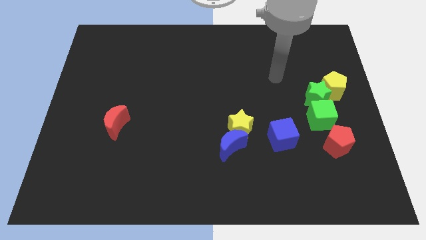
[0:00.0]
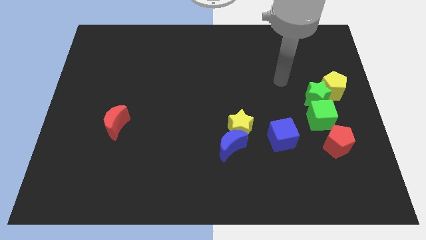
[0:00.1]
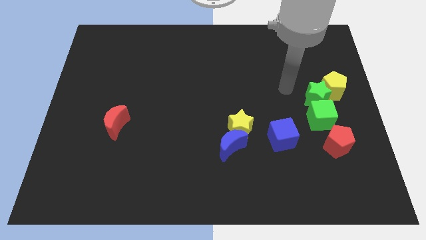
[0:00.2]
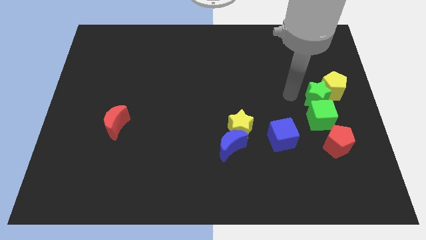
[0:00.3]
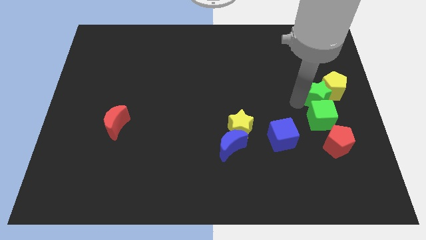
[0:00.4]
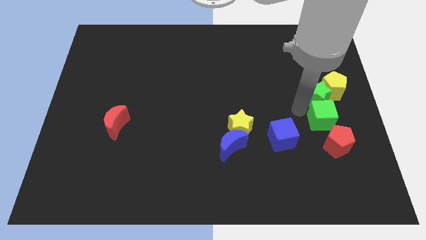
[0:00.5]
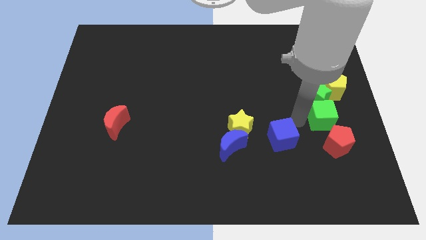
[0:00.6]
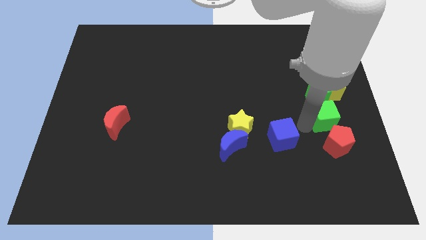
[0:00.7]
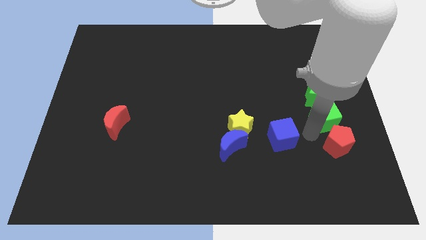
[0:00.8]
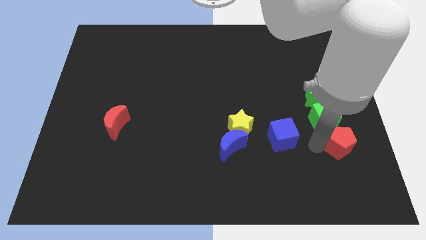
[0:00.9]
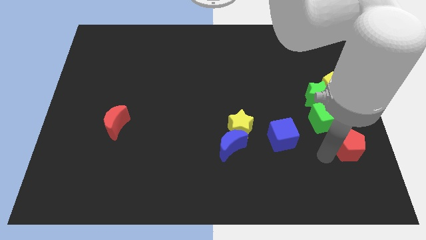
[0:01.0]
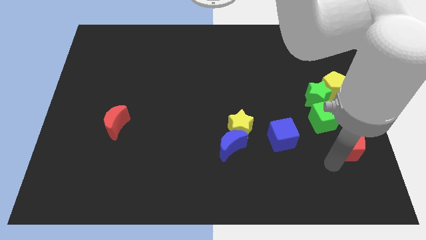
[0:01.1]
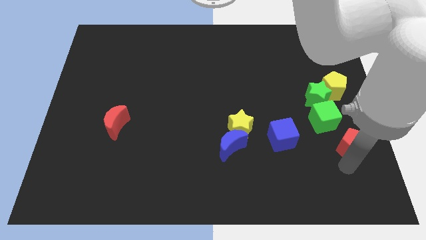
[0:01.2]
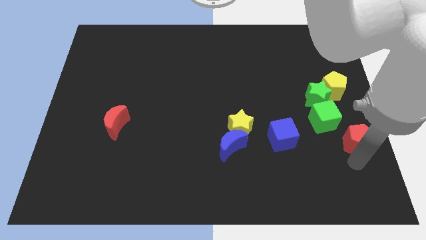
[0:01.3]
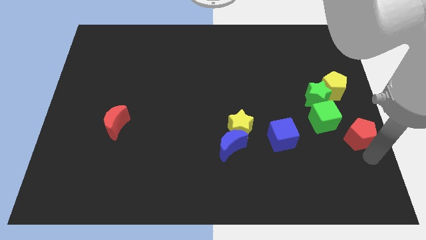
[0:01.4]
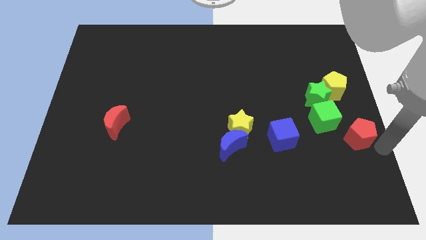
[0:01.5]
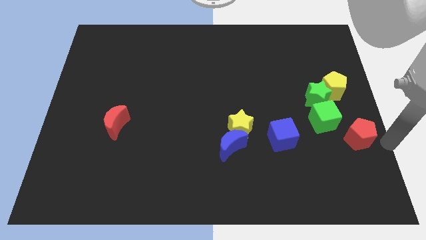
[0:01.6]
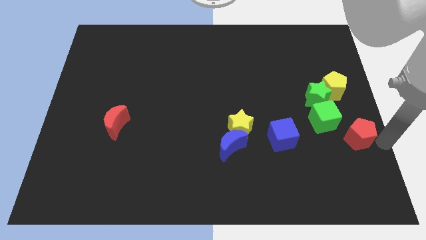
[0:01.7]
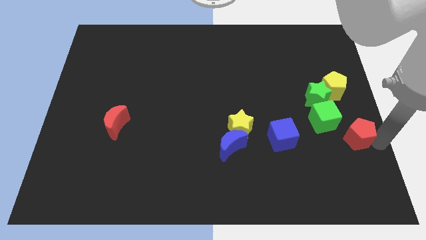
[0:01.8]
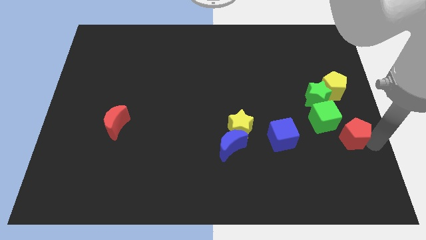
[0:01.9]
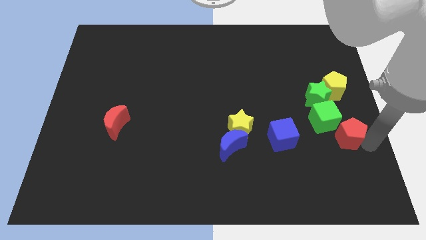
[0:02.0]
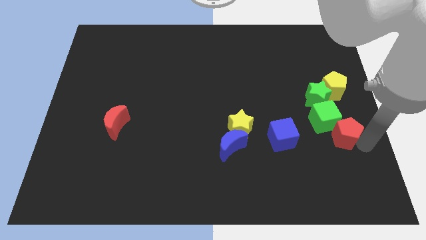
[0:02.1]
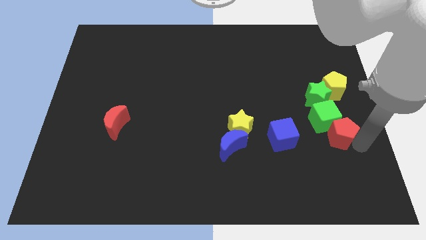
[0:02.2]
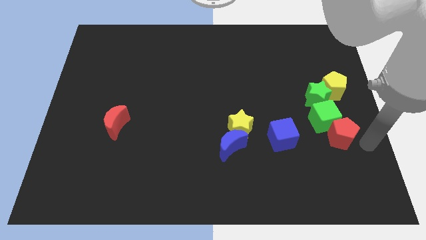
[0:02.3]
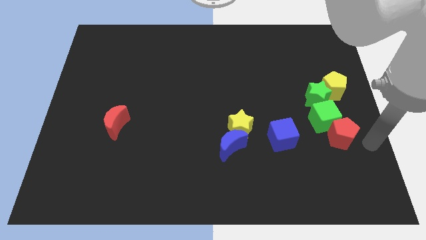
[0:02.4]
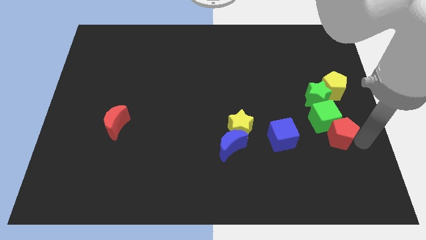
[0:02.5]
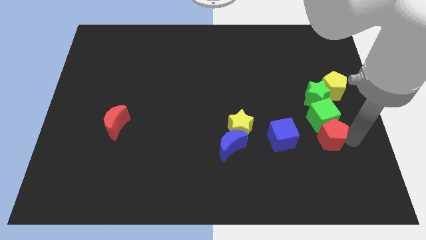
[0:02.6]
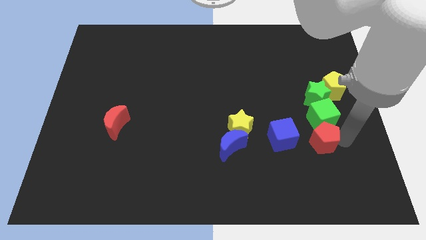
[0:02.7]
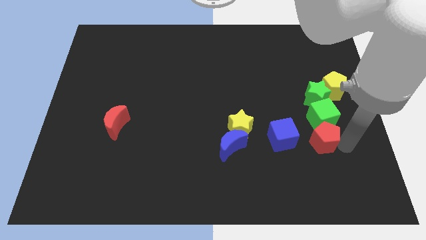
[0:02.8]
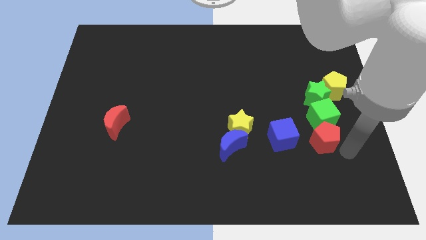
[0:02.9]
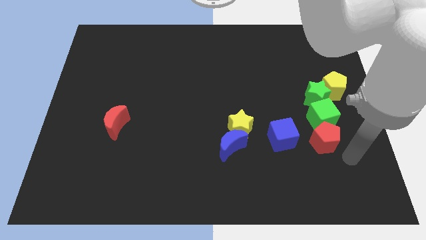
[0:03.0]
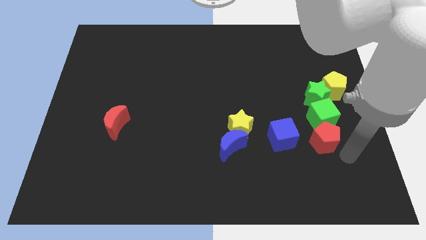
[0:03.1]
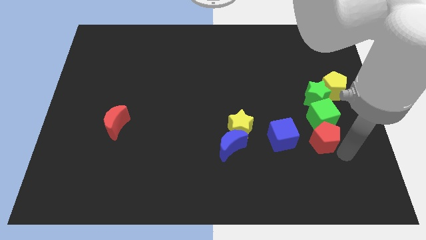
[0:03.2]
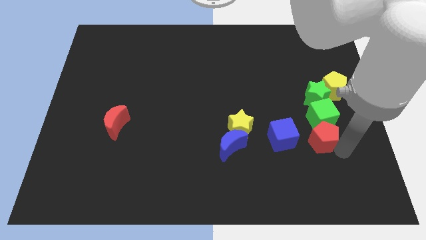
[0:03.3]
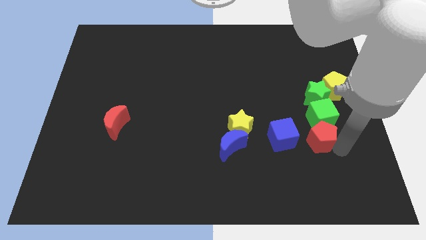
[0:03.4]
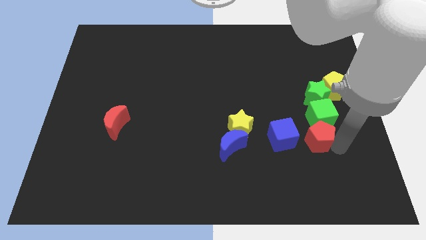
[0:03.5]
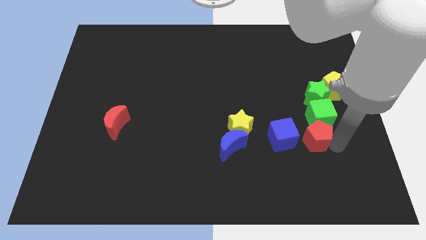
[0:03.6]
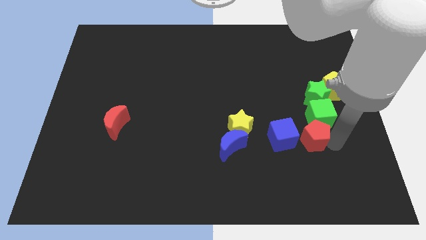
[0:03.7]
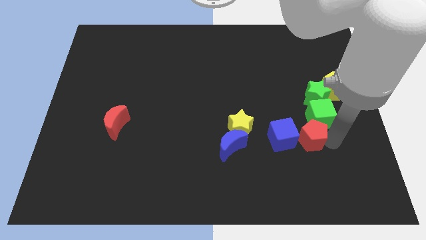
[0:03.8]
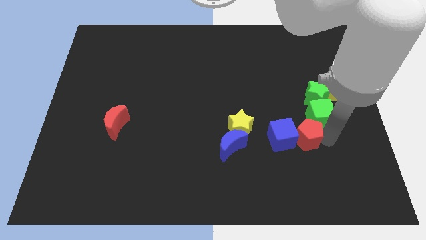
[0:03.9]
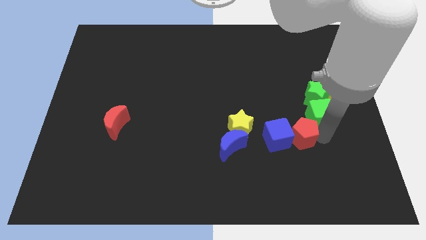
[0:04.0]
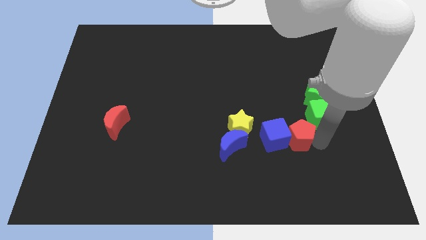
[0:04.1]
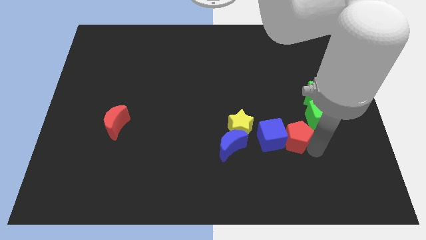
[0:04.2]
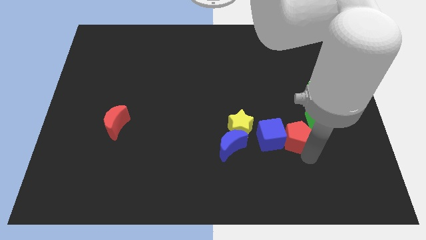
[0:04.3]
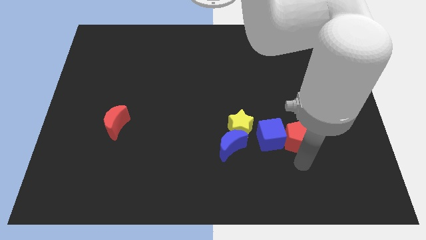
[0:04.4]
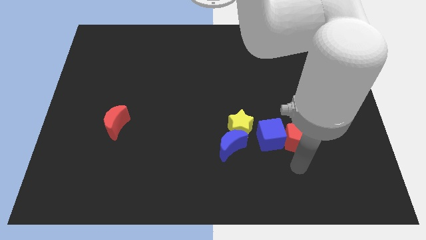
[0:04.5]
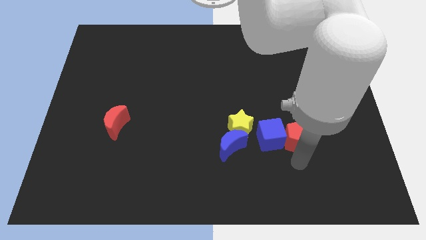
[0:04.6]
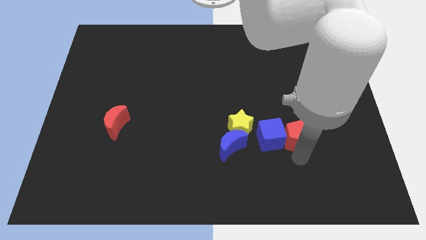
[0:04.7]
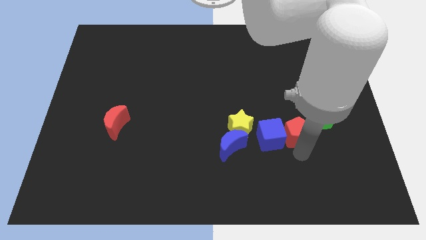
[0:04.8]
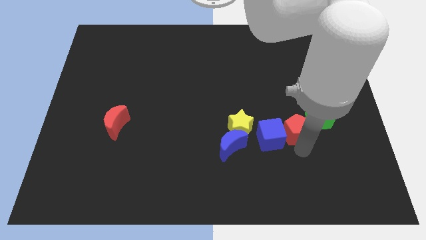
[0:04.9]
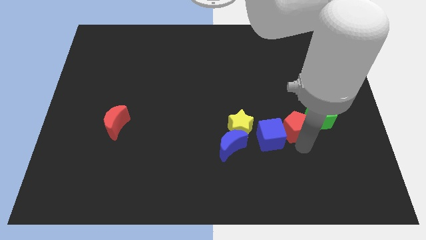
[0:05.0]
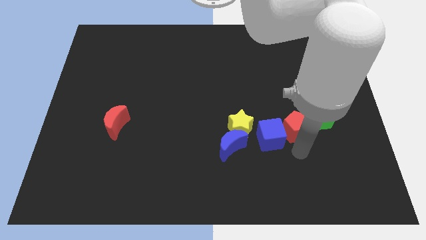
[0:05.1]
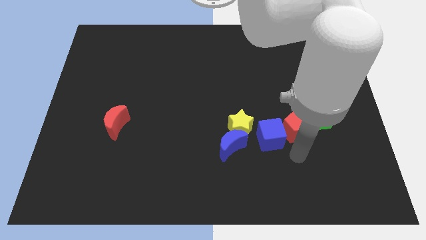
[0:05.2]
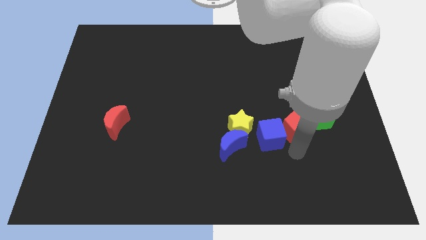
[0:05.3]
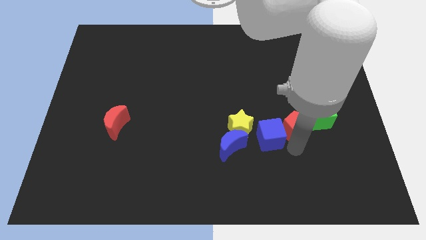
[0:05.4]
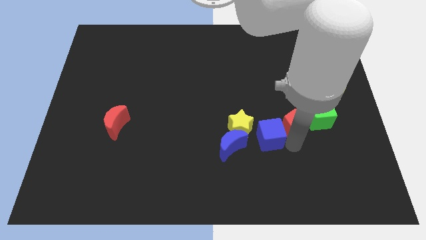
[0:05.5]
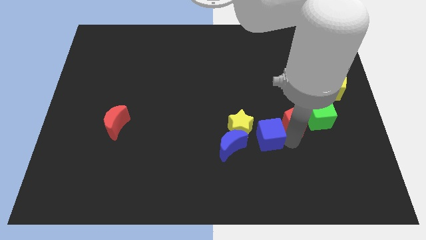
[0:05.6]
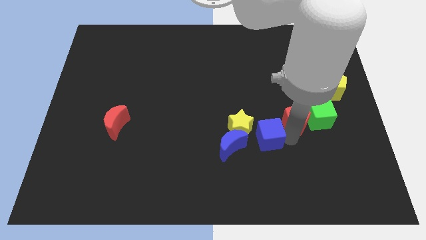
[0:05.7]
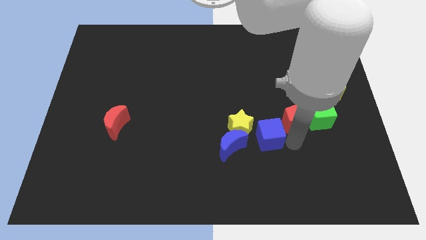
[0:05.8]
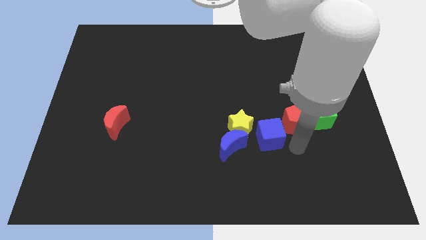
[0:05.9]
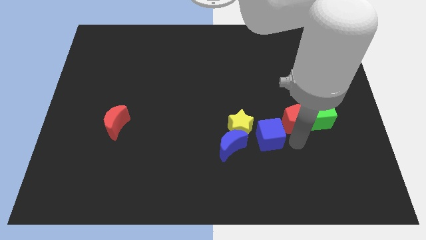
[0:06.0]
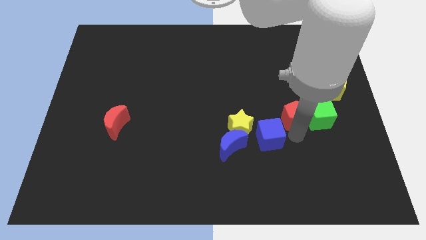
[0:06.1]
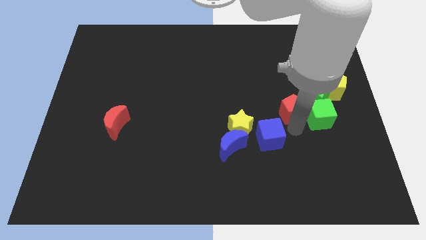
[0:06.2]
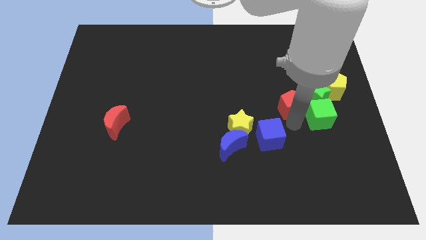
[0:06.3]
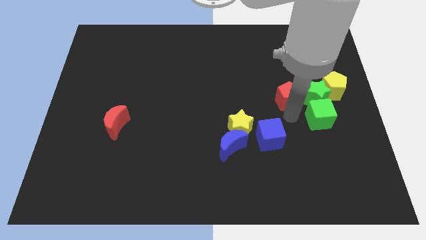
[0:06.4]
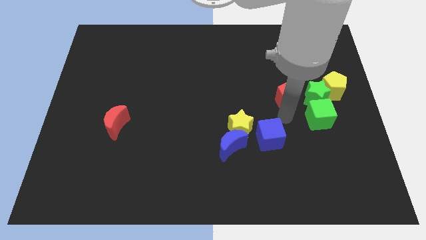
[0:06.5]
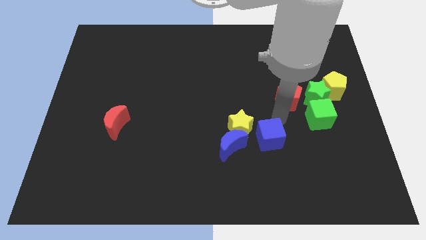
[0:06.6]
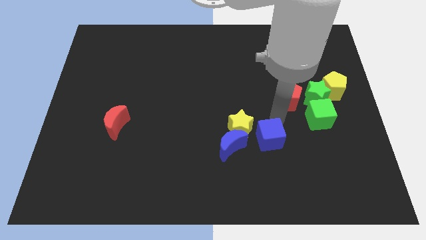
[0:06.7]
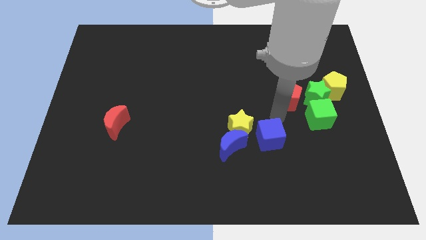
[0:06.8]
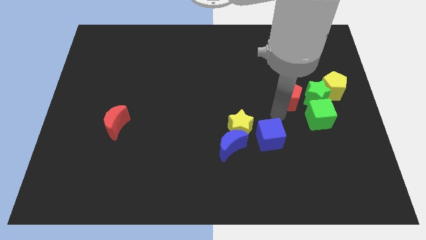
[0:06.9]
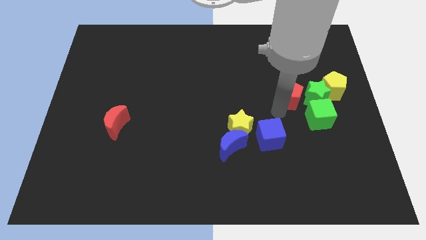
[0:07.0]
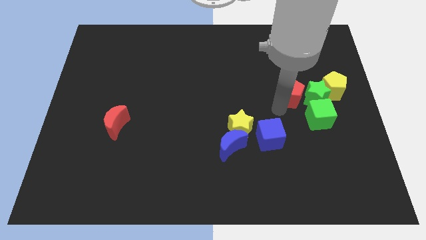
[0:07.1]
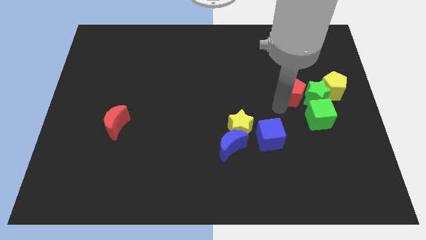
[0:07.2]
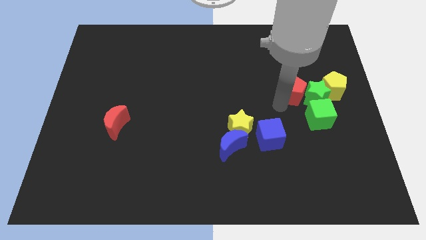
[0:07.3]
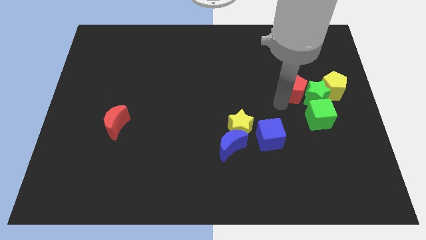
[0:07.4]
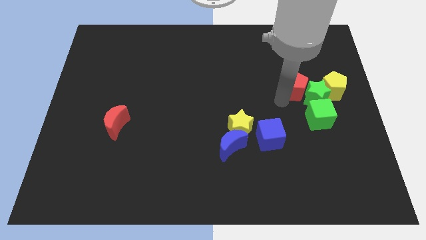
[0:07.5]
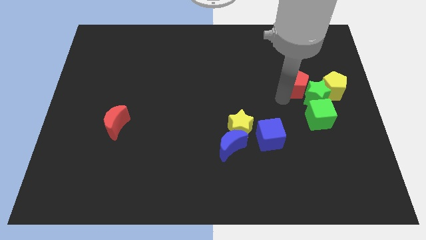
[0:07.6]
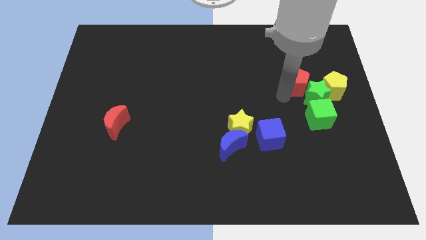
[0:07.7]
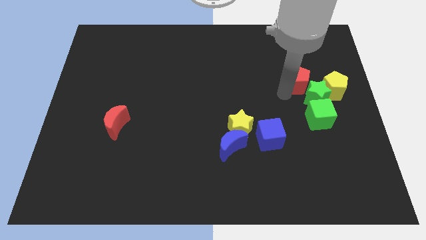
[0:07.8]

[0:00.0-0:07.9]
push the red pentagon to the top left of the yellow pentagon

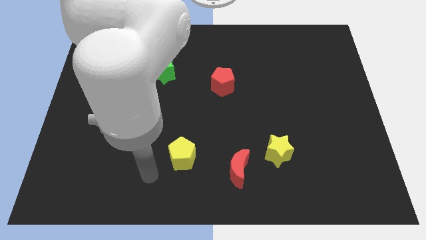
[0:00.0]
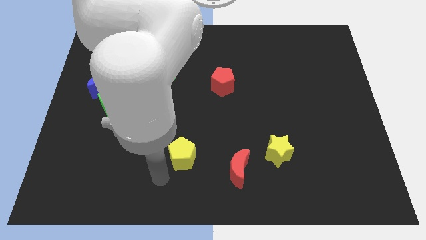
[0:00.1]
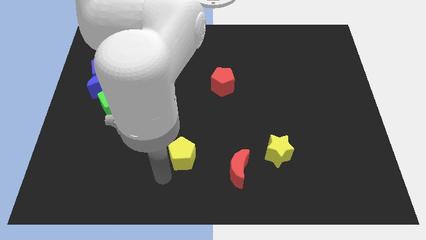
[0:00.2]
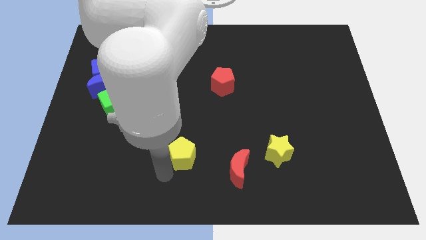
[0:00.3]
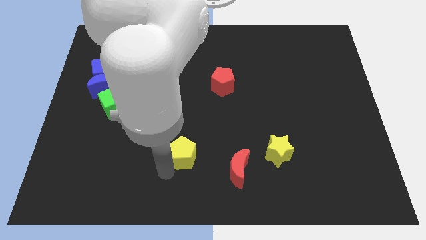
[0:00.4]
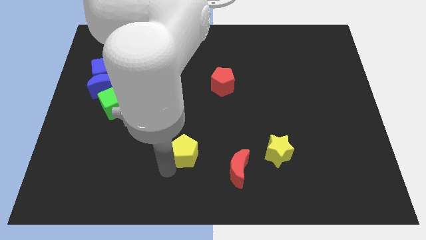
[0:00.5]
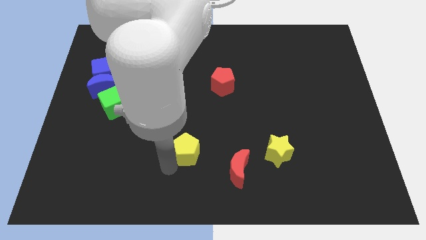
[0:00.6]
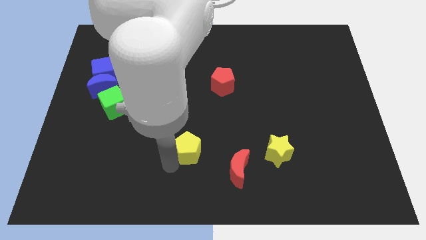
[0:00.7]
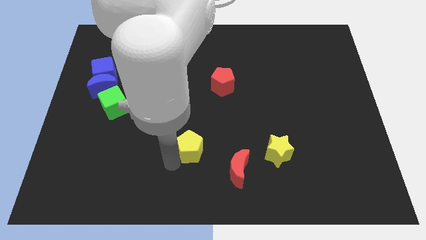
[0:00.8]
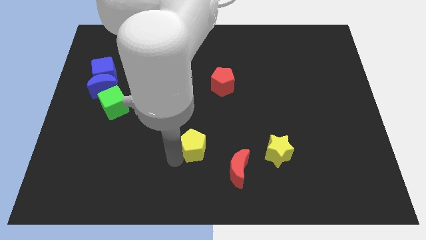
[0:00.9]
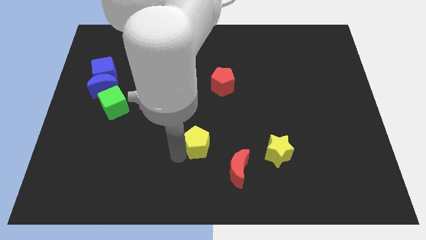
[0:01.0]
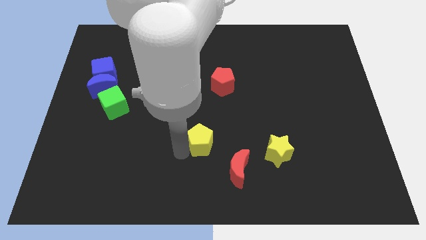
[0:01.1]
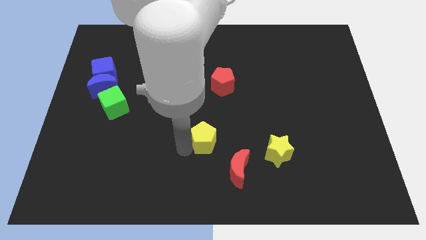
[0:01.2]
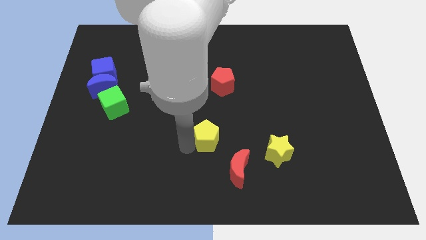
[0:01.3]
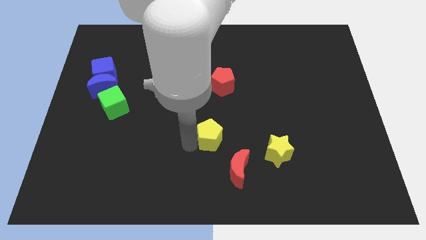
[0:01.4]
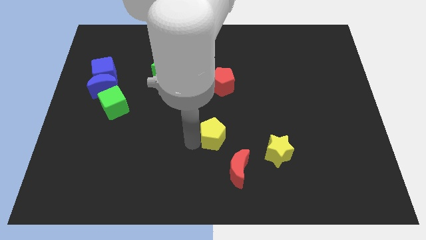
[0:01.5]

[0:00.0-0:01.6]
move the yellow pentagon to the bottom of the red pentagon
